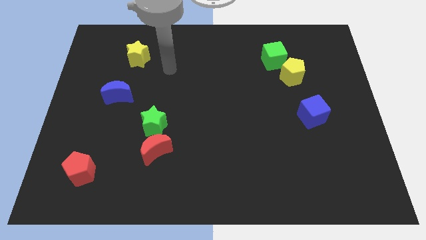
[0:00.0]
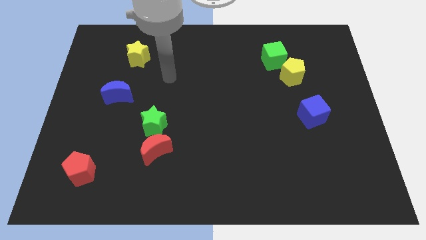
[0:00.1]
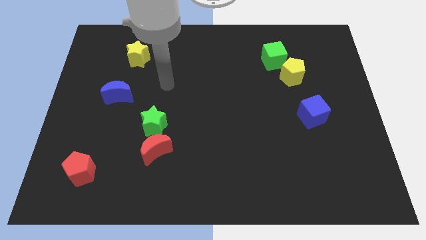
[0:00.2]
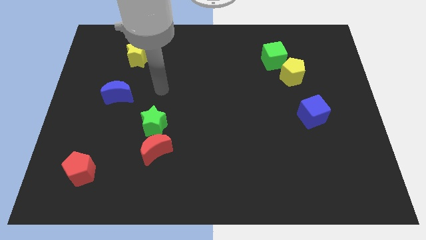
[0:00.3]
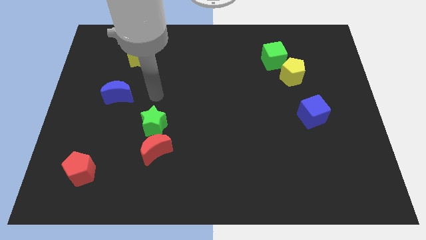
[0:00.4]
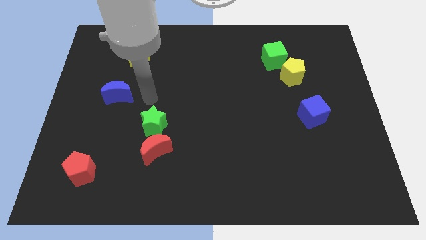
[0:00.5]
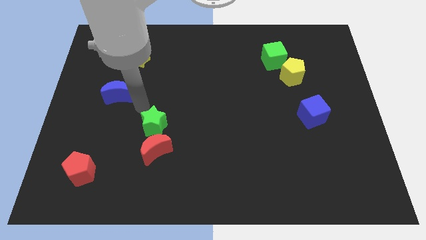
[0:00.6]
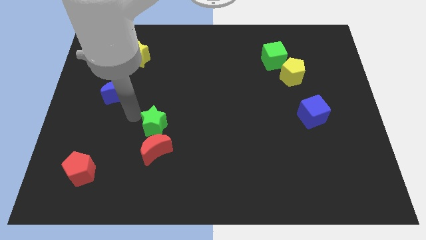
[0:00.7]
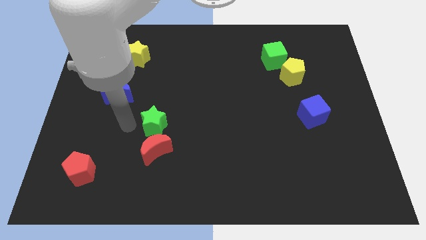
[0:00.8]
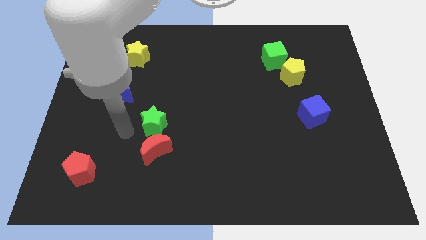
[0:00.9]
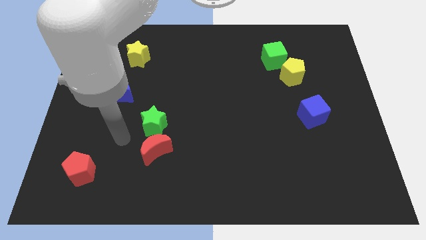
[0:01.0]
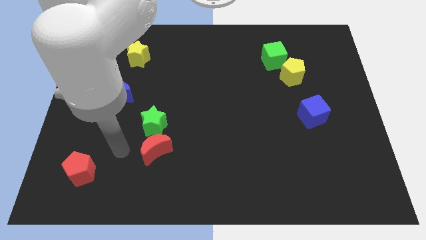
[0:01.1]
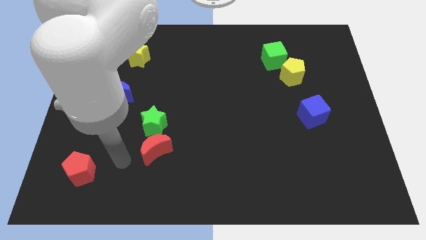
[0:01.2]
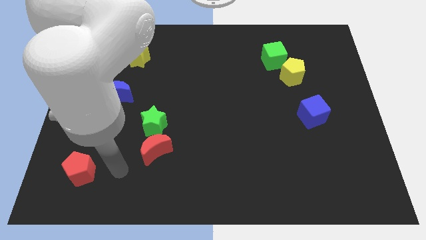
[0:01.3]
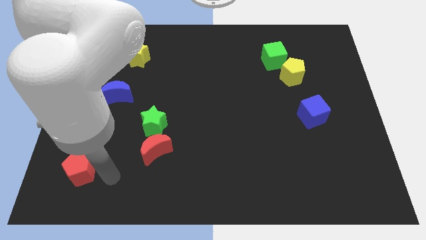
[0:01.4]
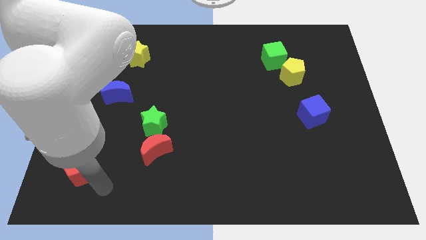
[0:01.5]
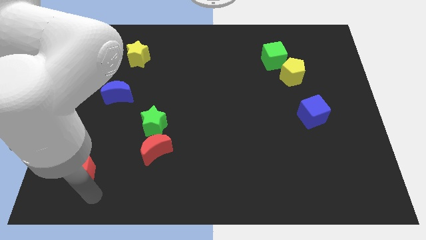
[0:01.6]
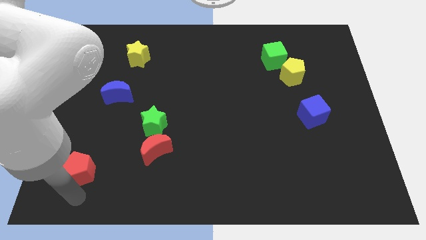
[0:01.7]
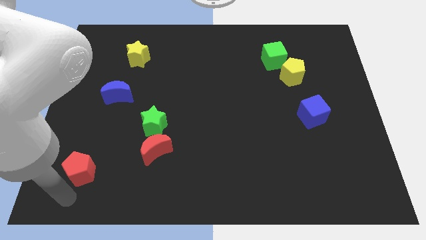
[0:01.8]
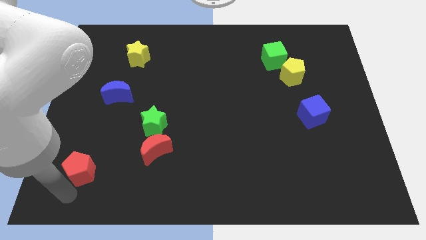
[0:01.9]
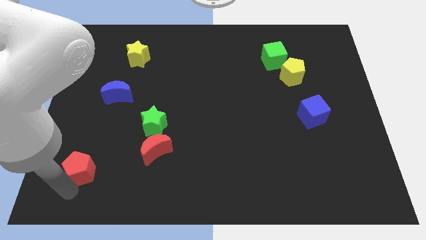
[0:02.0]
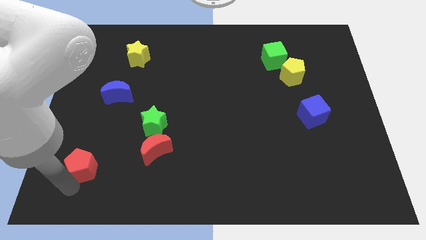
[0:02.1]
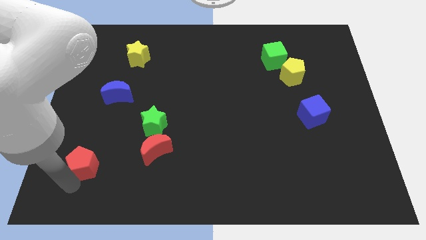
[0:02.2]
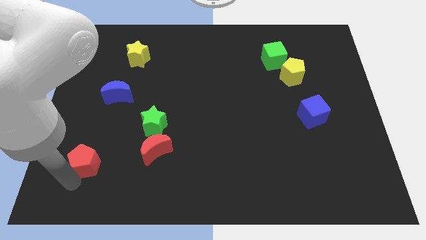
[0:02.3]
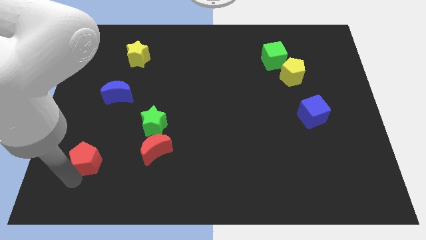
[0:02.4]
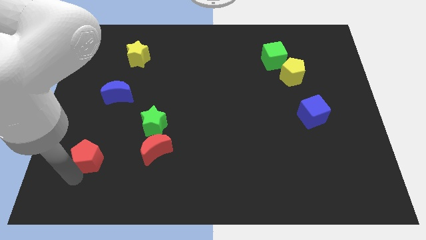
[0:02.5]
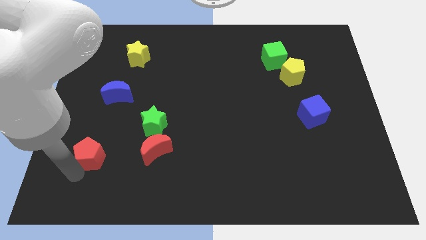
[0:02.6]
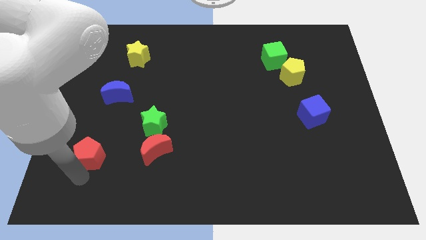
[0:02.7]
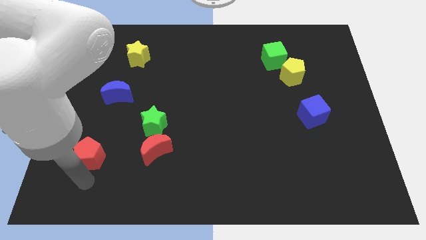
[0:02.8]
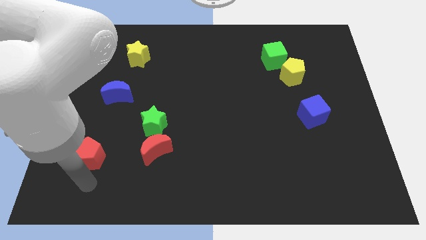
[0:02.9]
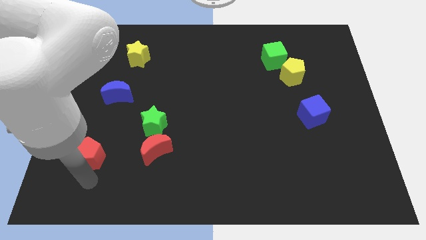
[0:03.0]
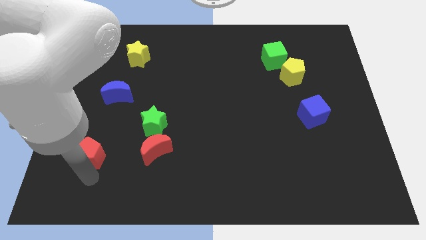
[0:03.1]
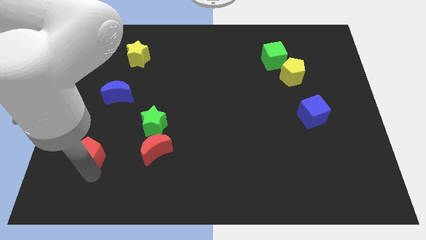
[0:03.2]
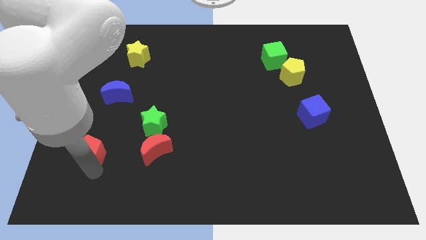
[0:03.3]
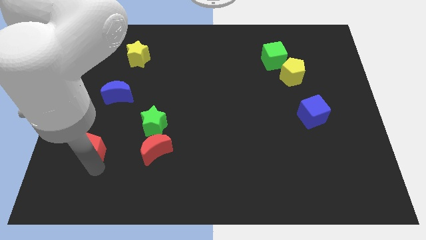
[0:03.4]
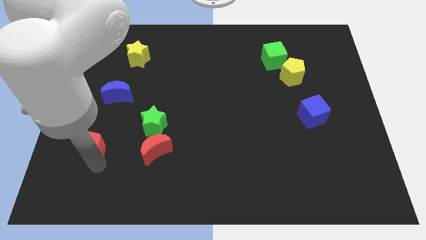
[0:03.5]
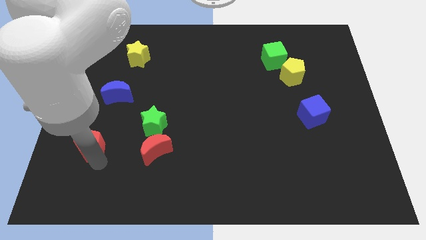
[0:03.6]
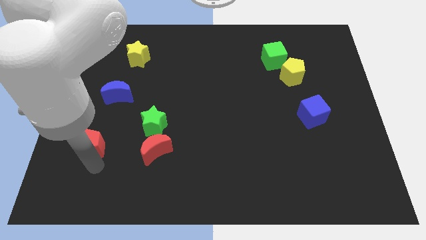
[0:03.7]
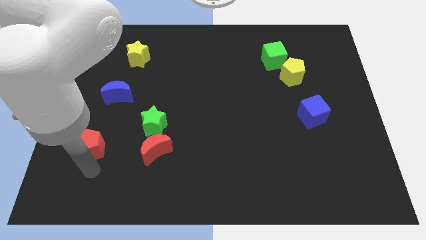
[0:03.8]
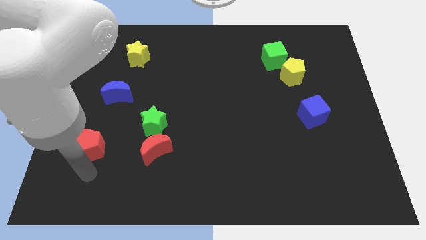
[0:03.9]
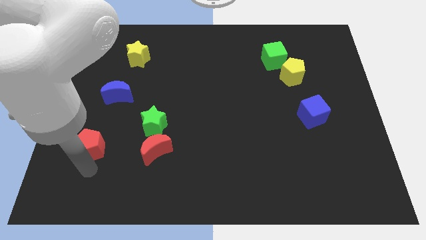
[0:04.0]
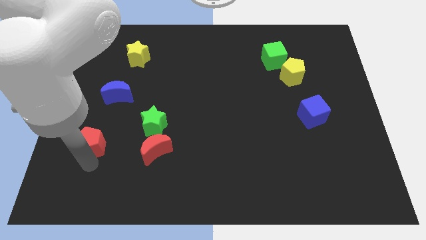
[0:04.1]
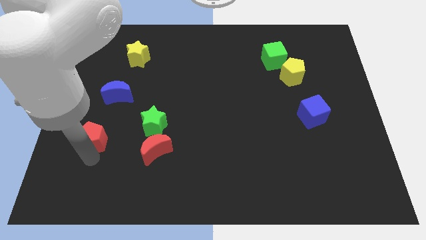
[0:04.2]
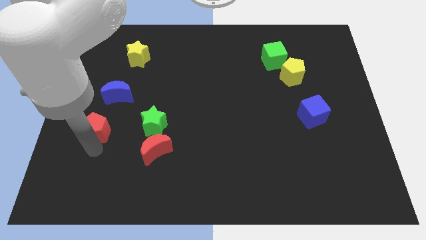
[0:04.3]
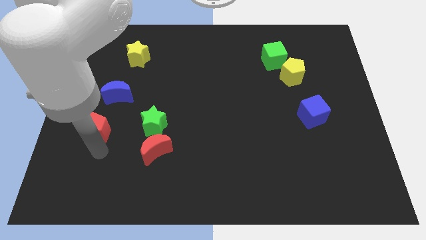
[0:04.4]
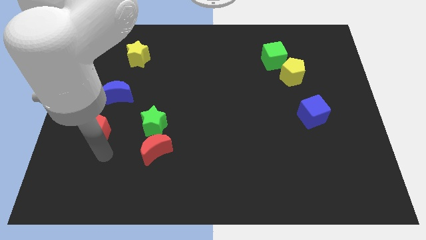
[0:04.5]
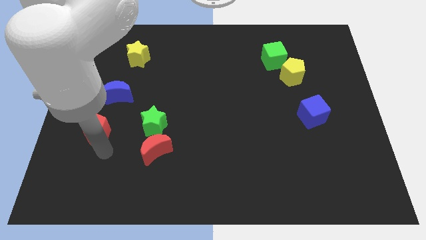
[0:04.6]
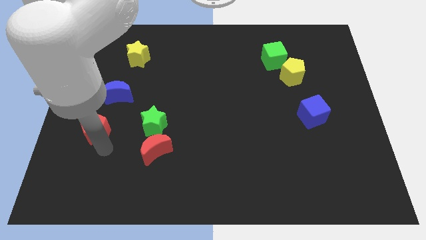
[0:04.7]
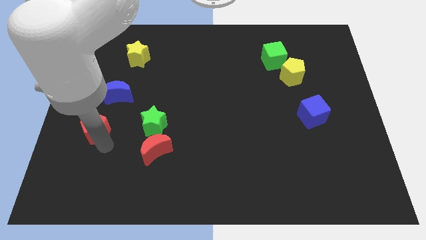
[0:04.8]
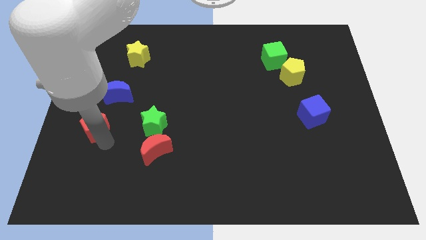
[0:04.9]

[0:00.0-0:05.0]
slide the red pentagon diagonally down and to the left of the blue moon

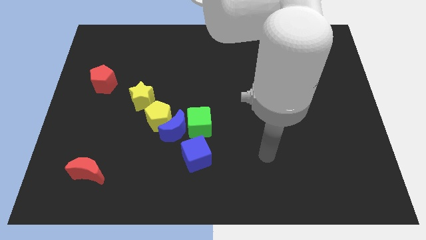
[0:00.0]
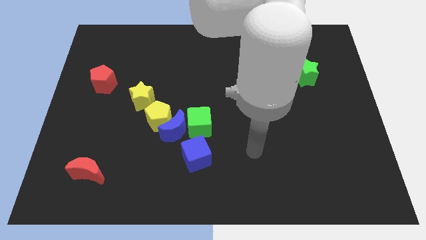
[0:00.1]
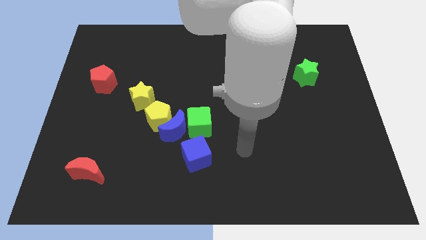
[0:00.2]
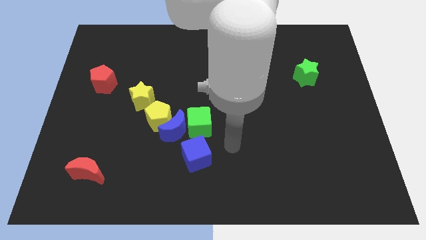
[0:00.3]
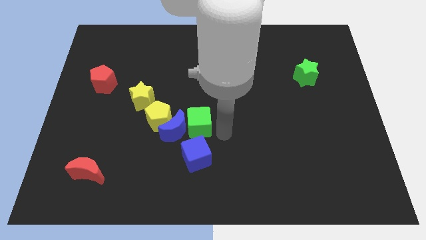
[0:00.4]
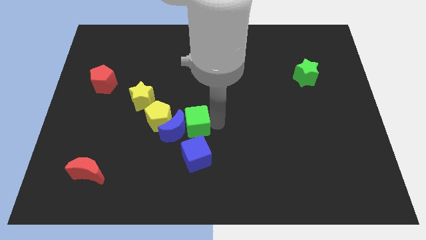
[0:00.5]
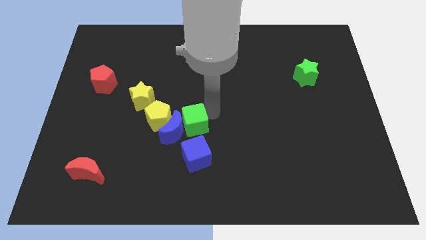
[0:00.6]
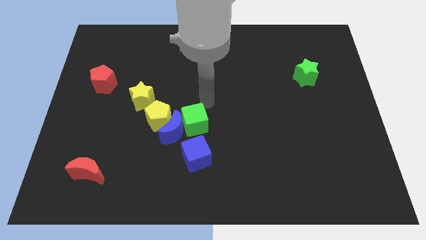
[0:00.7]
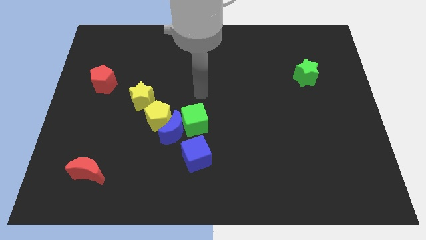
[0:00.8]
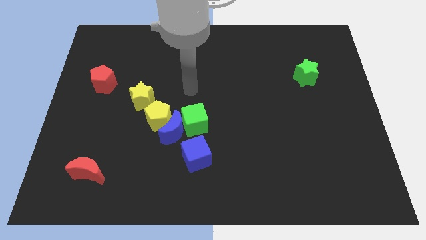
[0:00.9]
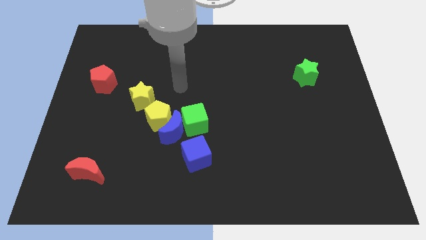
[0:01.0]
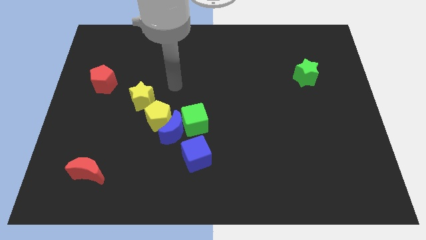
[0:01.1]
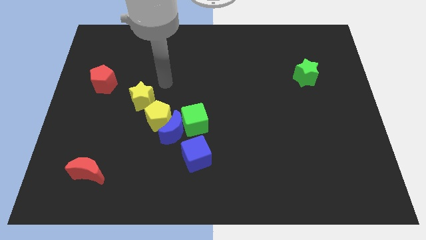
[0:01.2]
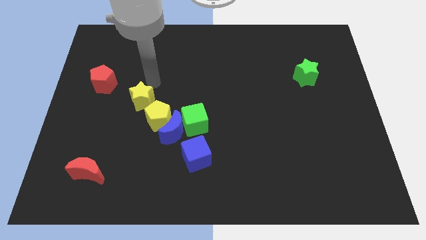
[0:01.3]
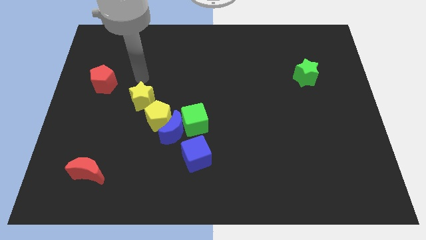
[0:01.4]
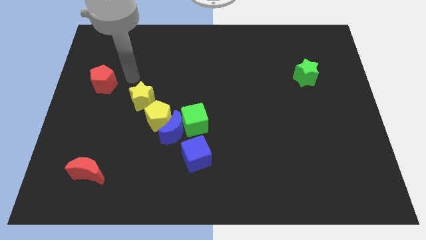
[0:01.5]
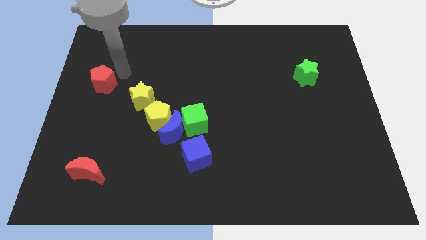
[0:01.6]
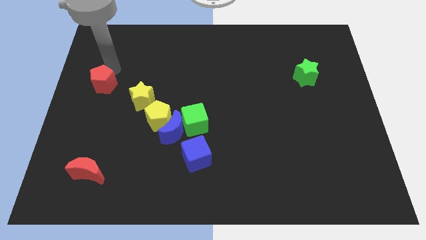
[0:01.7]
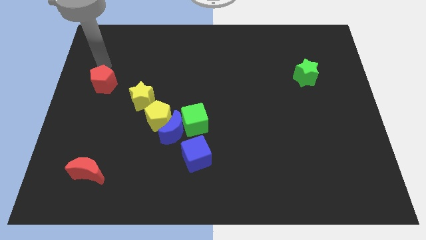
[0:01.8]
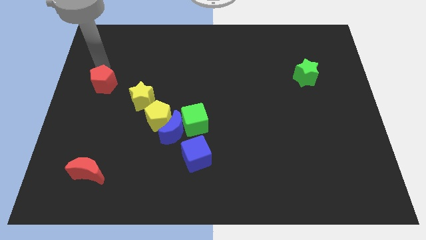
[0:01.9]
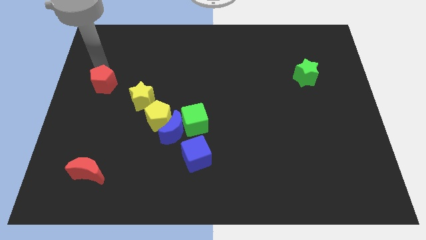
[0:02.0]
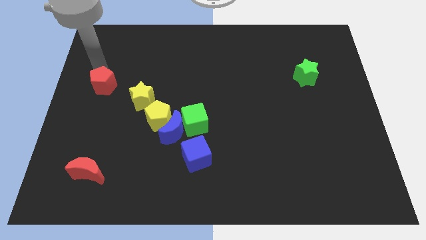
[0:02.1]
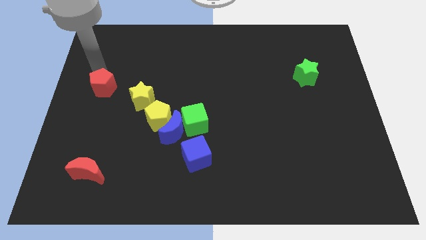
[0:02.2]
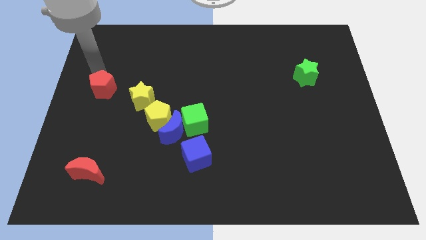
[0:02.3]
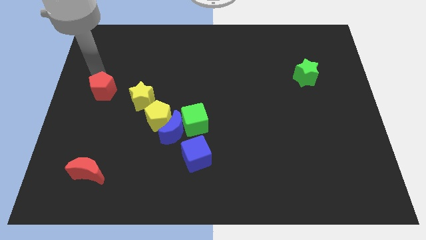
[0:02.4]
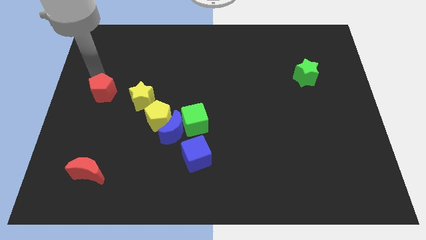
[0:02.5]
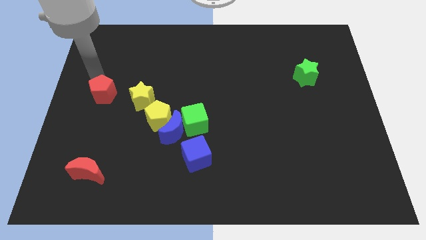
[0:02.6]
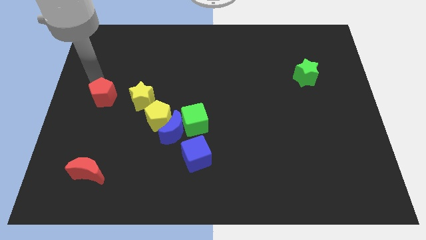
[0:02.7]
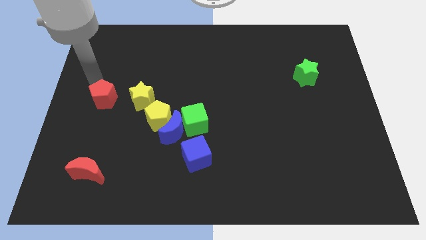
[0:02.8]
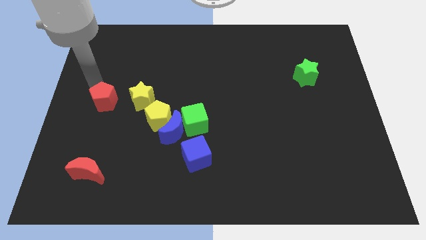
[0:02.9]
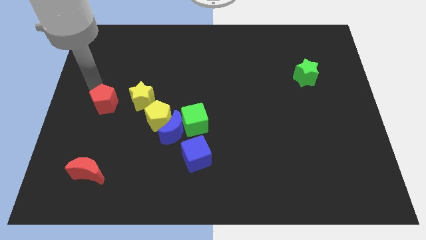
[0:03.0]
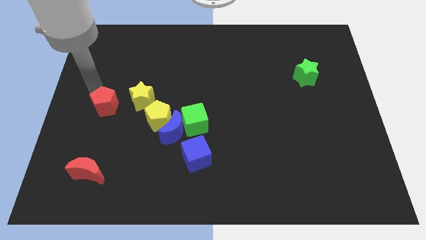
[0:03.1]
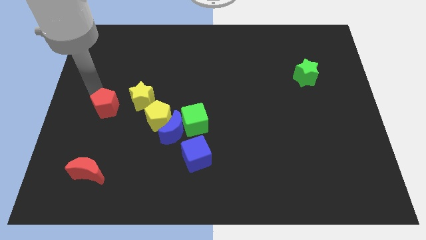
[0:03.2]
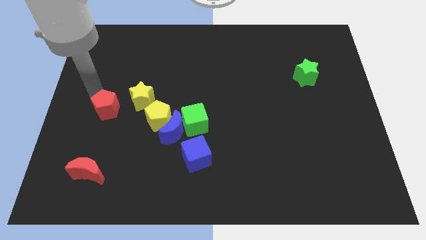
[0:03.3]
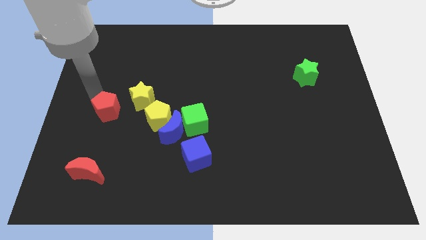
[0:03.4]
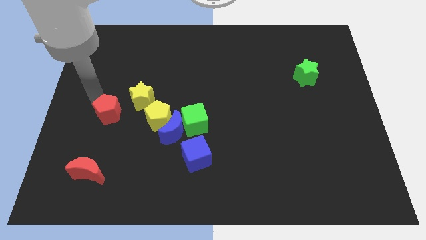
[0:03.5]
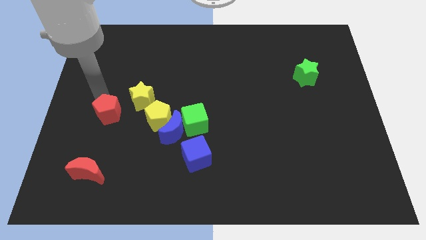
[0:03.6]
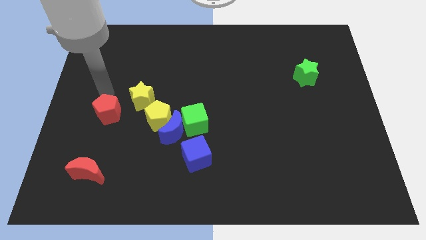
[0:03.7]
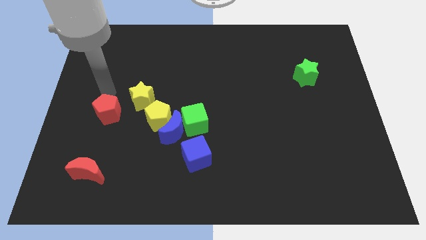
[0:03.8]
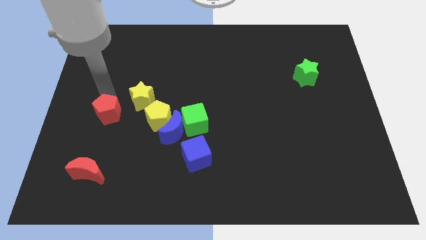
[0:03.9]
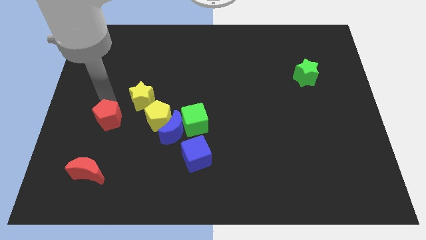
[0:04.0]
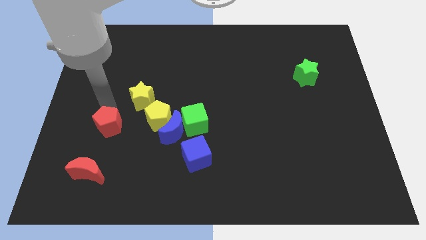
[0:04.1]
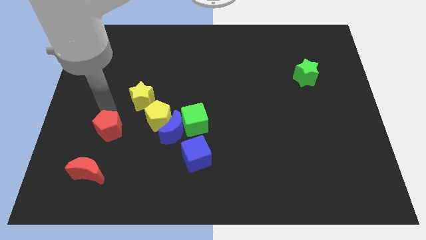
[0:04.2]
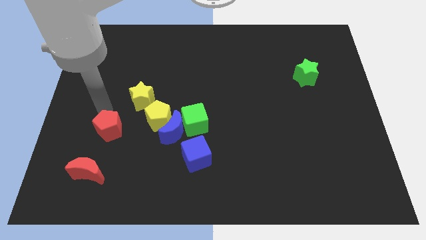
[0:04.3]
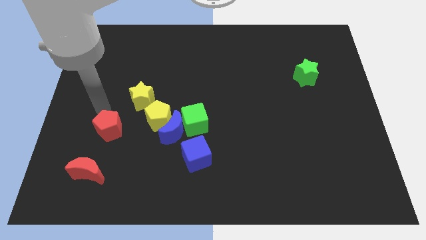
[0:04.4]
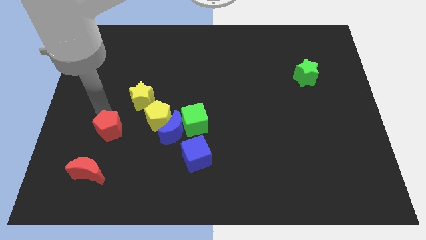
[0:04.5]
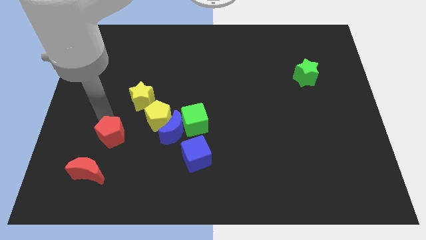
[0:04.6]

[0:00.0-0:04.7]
put the red pentagon diagonally up and to the right of the red moon
